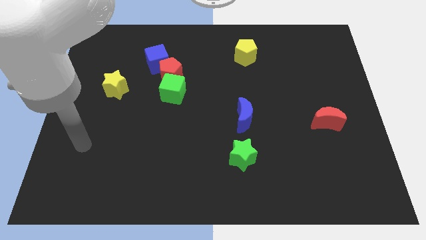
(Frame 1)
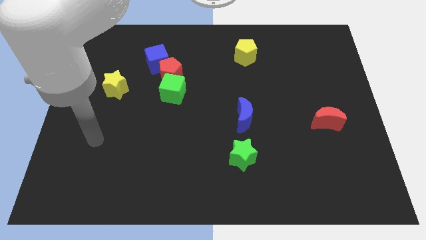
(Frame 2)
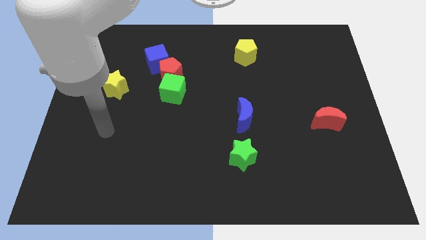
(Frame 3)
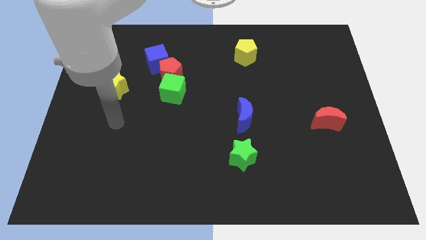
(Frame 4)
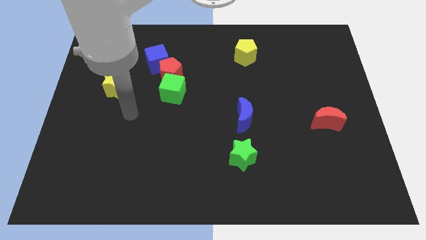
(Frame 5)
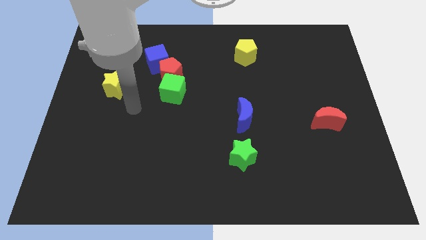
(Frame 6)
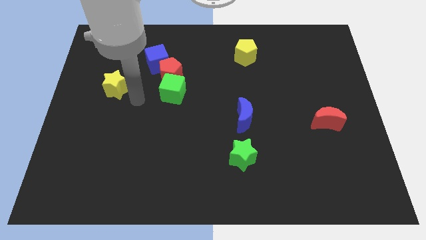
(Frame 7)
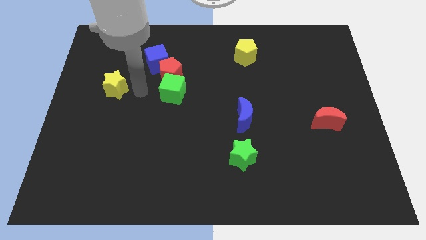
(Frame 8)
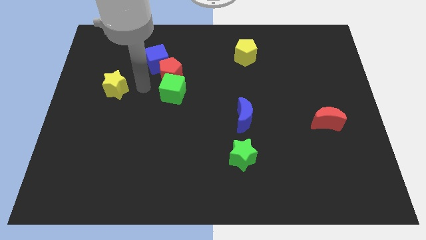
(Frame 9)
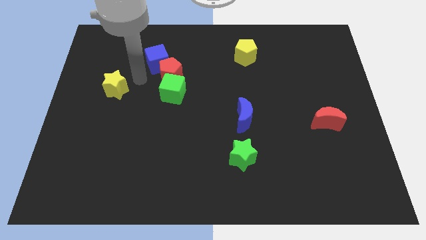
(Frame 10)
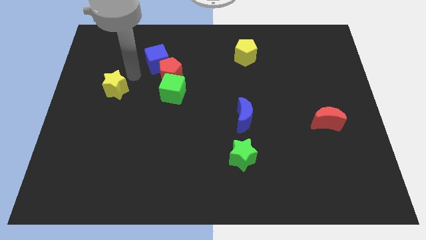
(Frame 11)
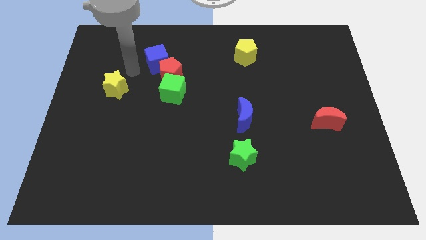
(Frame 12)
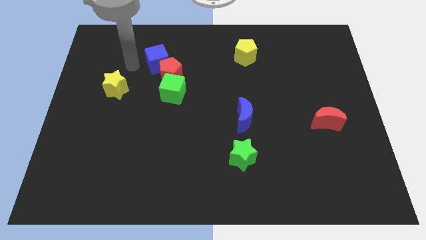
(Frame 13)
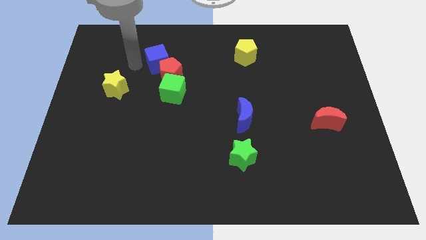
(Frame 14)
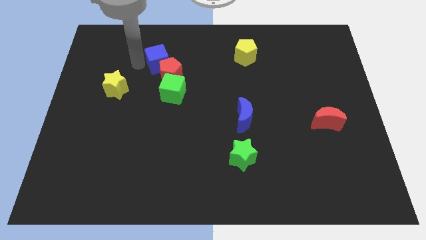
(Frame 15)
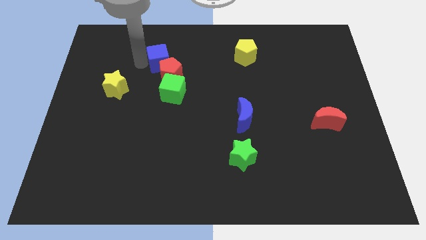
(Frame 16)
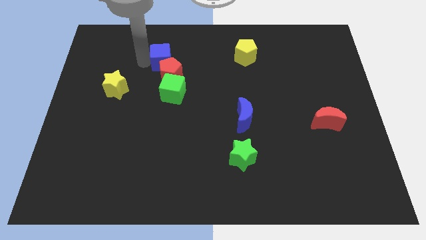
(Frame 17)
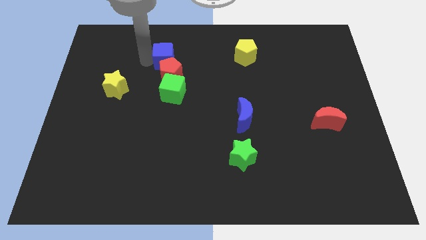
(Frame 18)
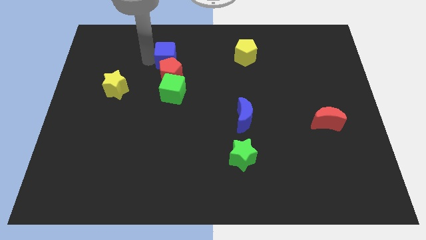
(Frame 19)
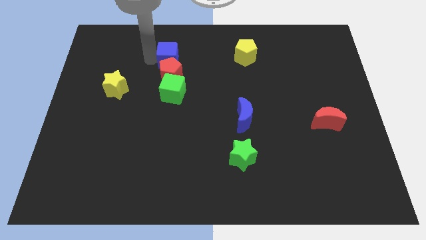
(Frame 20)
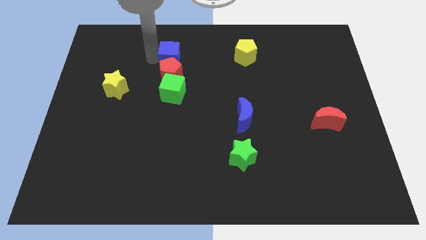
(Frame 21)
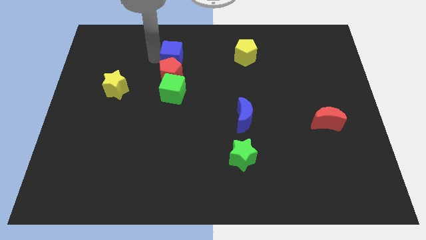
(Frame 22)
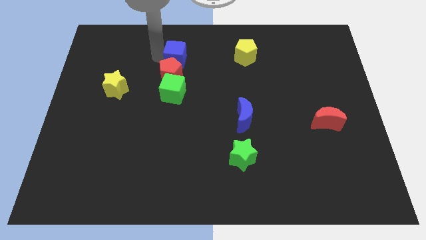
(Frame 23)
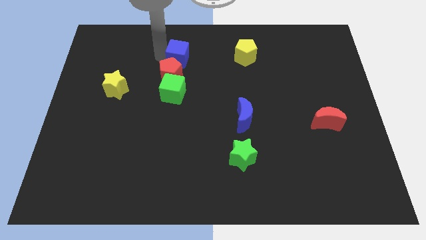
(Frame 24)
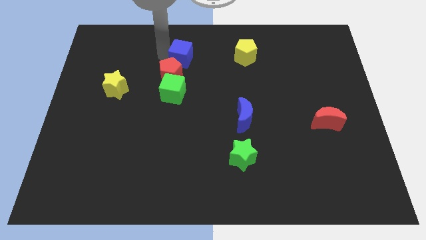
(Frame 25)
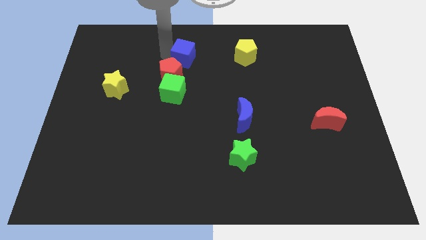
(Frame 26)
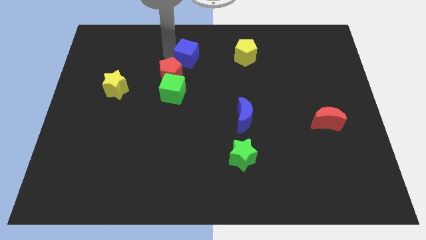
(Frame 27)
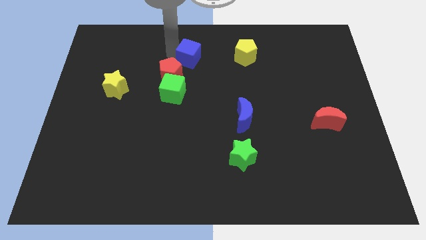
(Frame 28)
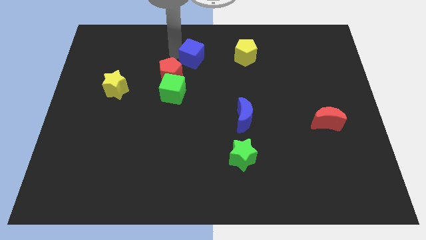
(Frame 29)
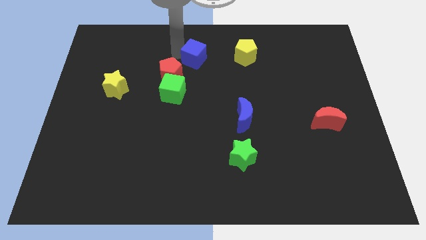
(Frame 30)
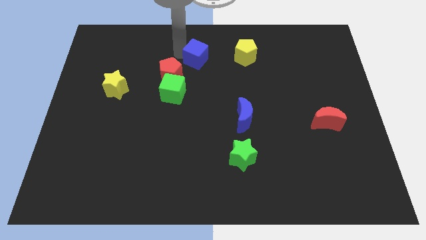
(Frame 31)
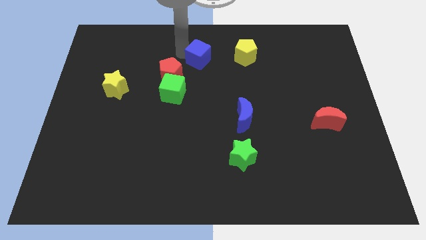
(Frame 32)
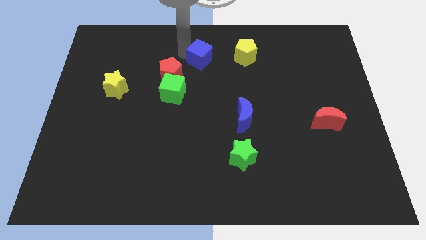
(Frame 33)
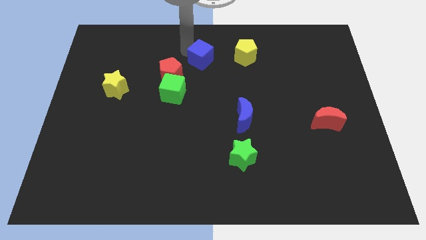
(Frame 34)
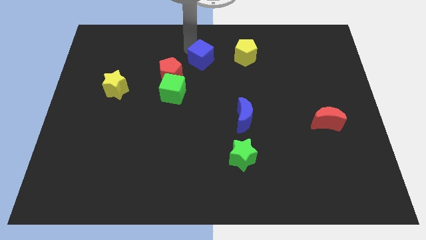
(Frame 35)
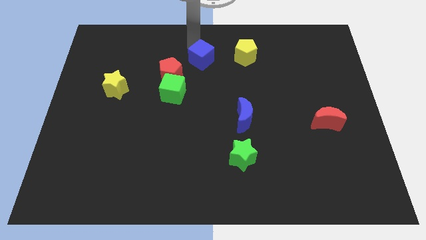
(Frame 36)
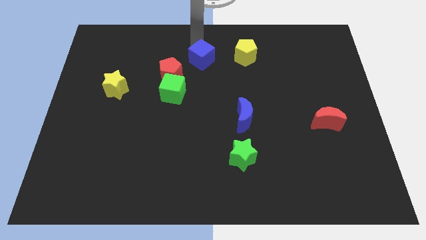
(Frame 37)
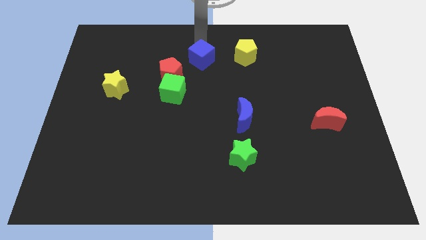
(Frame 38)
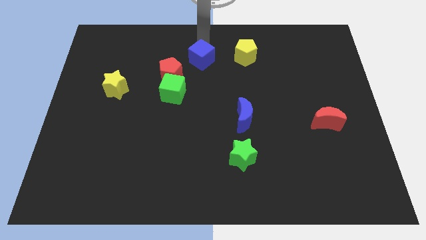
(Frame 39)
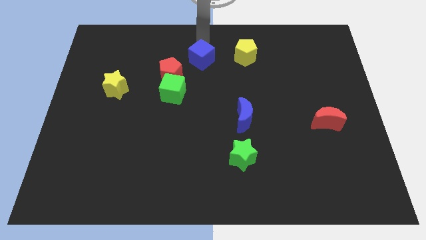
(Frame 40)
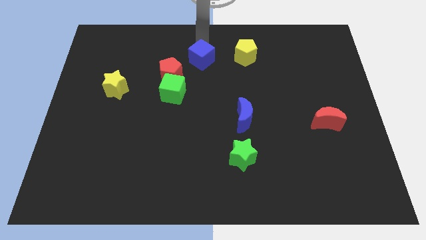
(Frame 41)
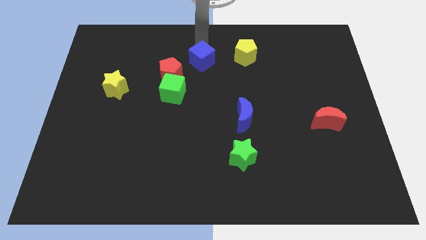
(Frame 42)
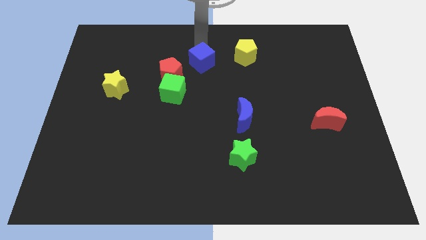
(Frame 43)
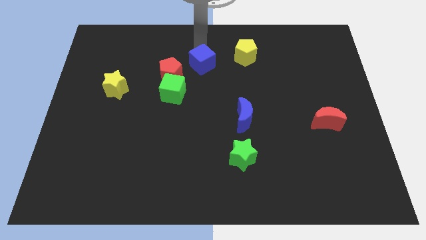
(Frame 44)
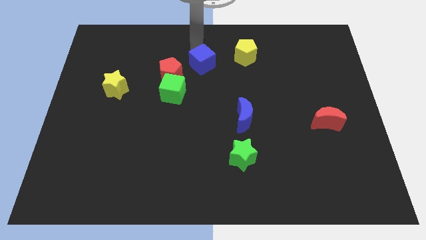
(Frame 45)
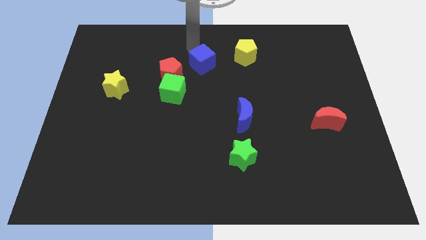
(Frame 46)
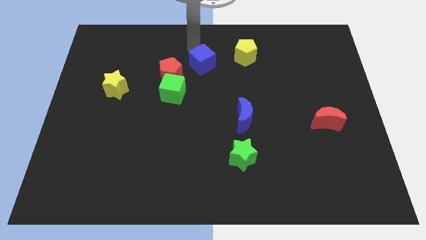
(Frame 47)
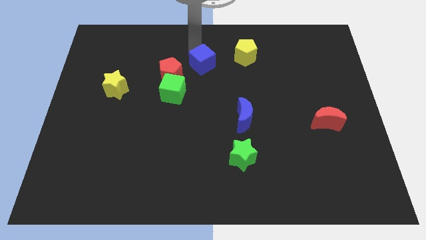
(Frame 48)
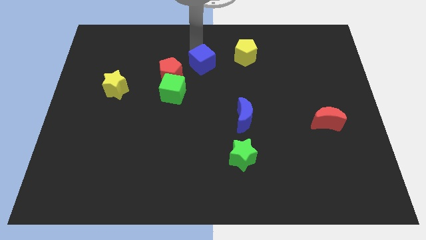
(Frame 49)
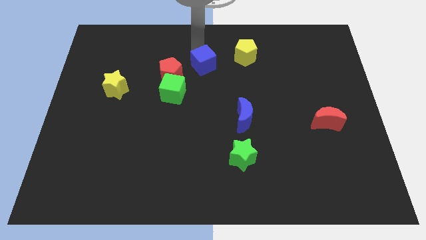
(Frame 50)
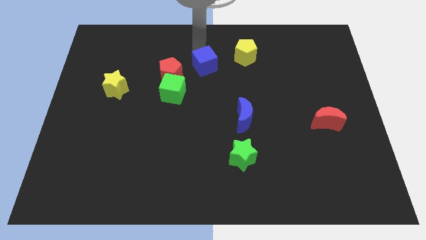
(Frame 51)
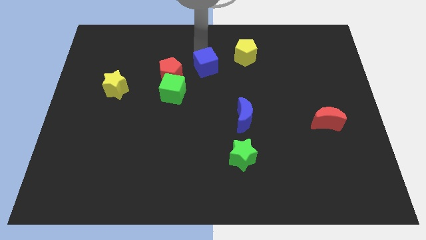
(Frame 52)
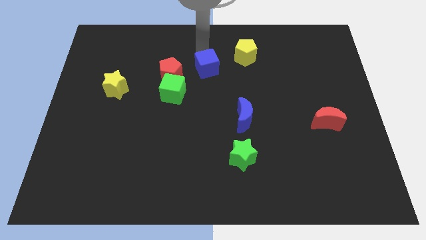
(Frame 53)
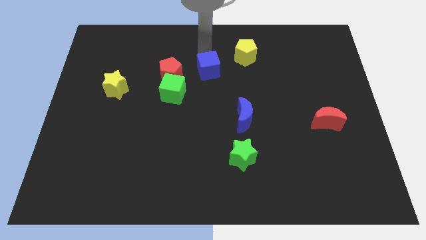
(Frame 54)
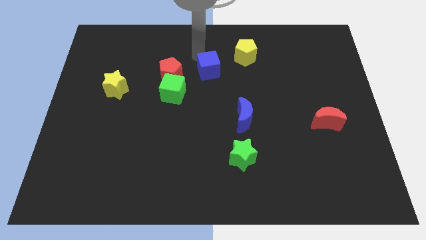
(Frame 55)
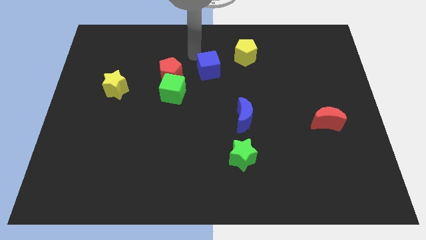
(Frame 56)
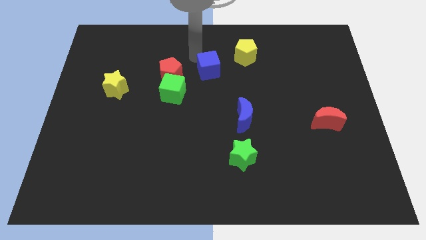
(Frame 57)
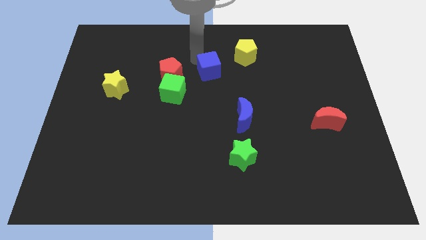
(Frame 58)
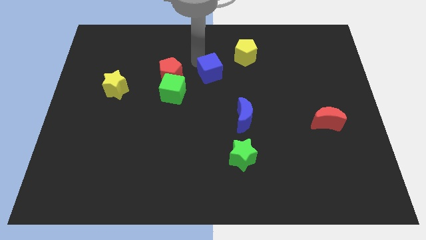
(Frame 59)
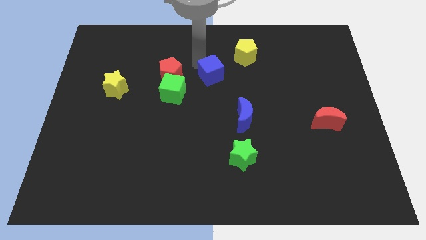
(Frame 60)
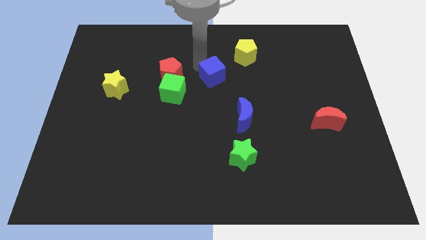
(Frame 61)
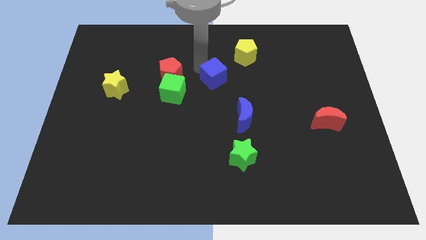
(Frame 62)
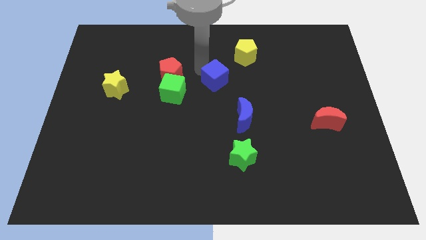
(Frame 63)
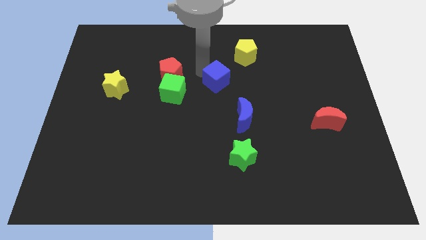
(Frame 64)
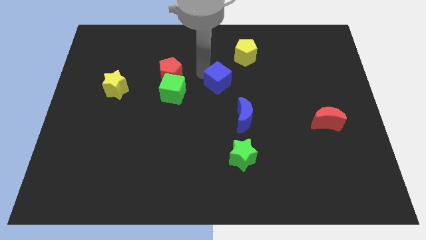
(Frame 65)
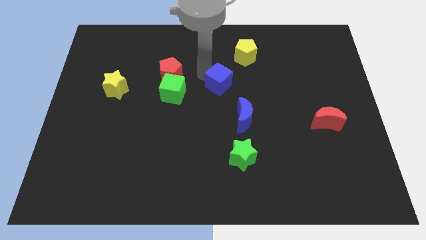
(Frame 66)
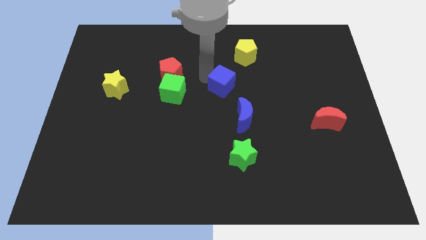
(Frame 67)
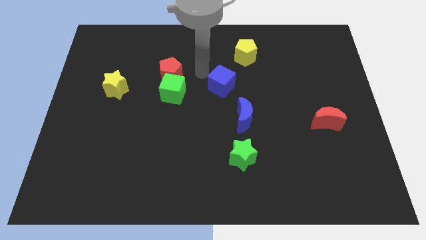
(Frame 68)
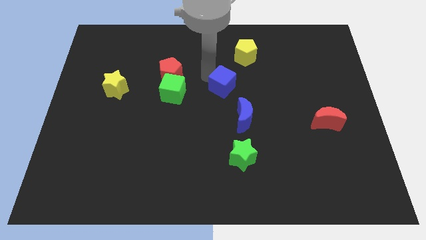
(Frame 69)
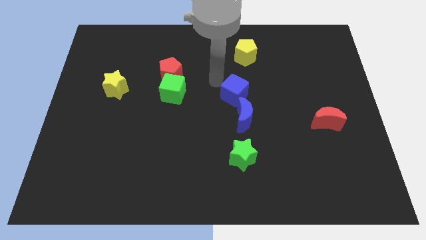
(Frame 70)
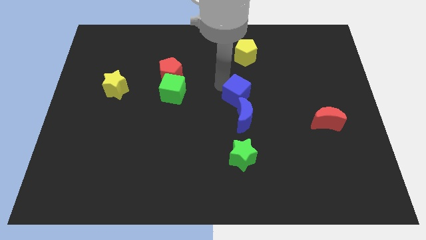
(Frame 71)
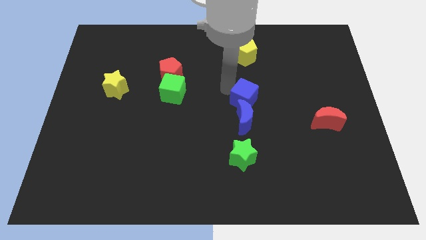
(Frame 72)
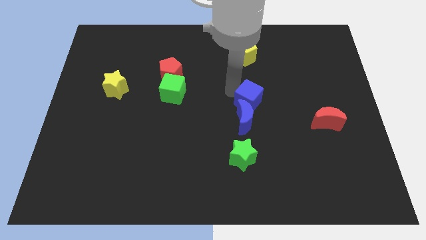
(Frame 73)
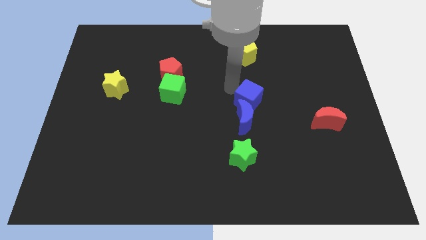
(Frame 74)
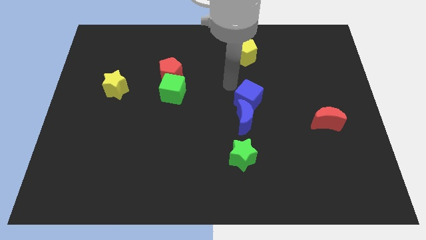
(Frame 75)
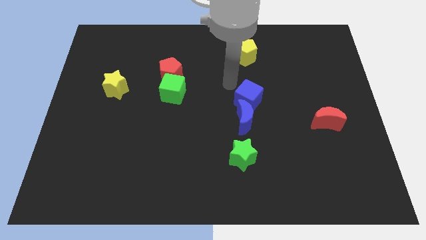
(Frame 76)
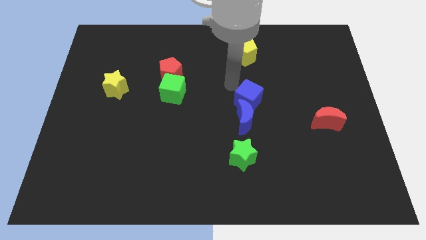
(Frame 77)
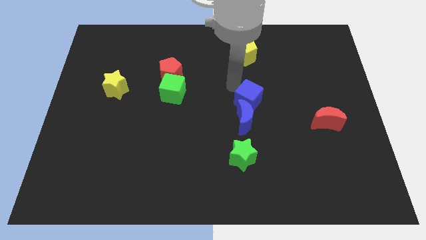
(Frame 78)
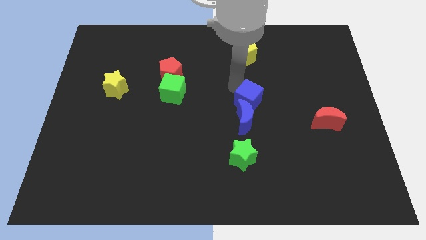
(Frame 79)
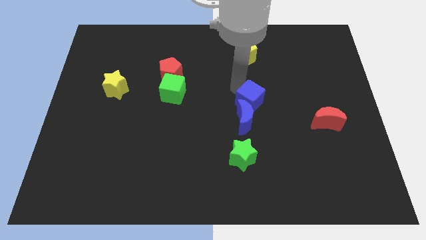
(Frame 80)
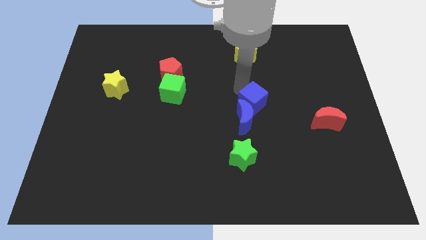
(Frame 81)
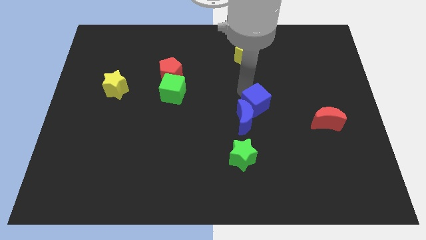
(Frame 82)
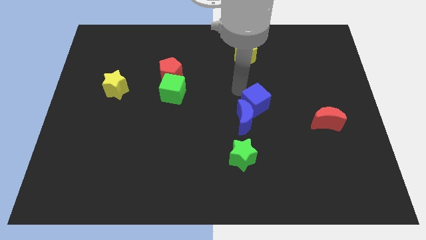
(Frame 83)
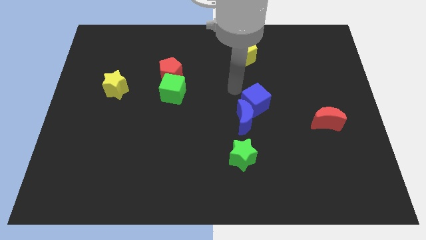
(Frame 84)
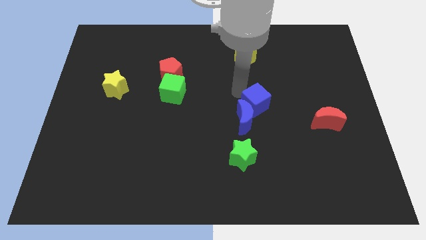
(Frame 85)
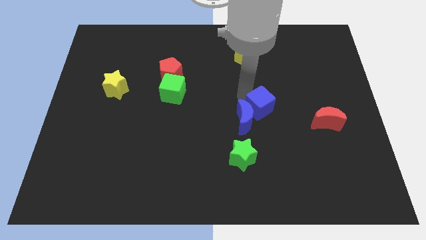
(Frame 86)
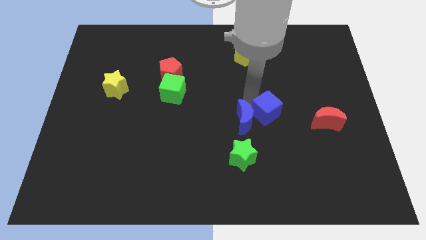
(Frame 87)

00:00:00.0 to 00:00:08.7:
put the blue cube to the left side of the red moon
